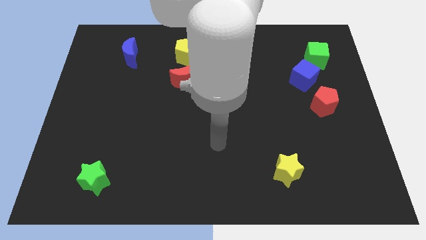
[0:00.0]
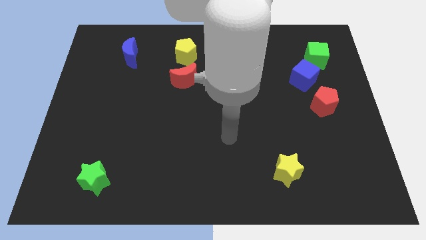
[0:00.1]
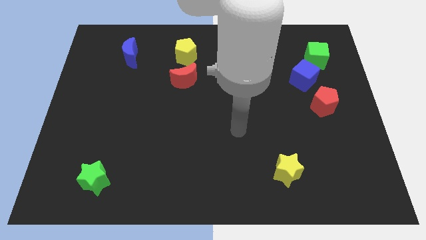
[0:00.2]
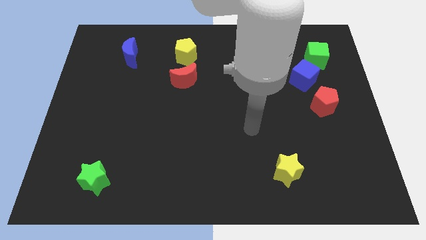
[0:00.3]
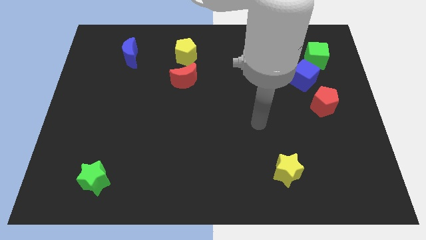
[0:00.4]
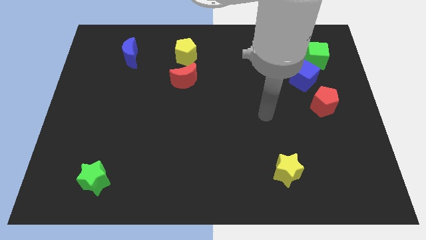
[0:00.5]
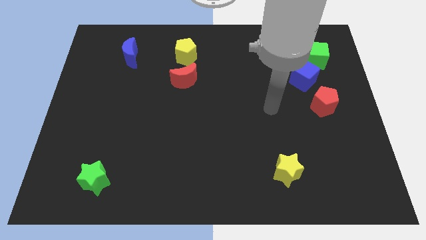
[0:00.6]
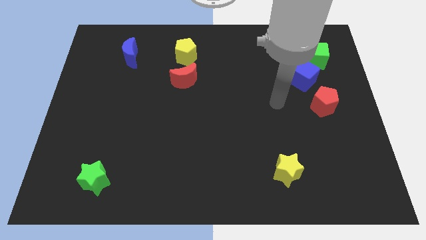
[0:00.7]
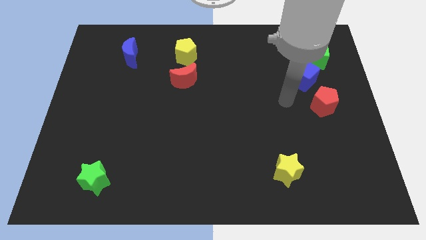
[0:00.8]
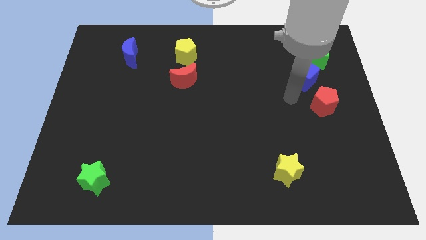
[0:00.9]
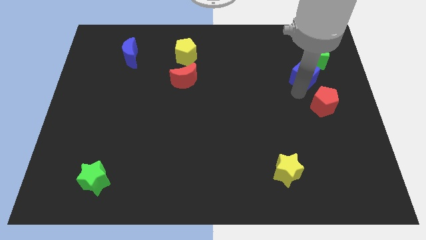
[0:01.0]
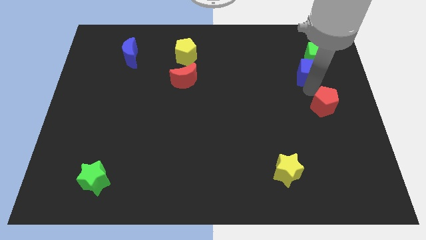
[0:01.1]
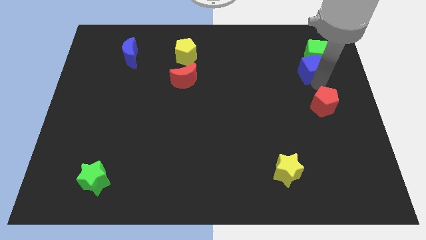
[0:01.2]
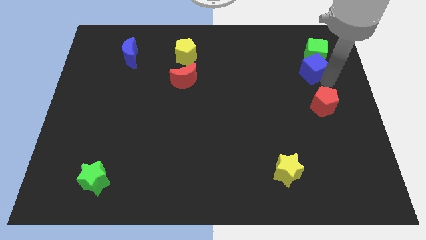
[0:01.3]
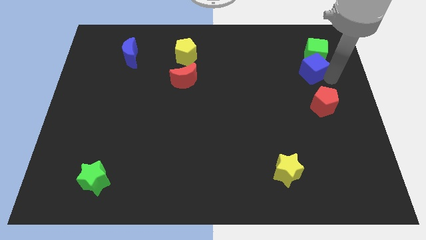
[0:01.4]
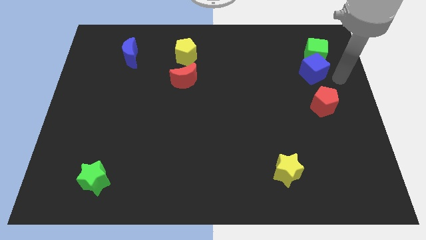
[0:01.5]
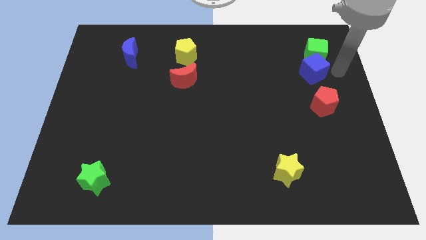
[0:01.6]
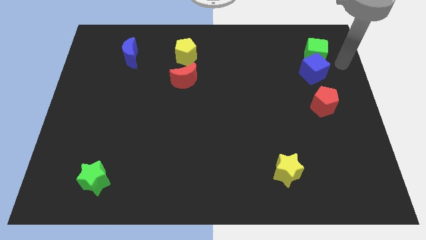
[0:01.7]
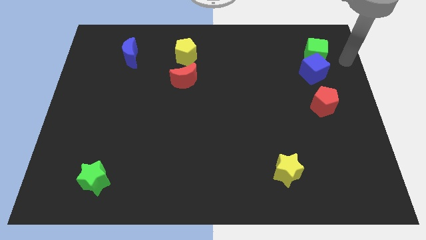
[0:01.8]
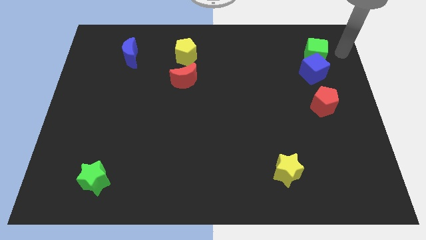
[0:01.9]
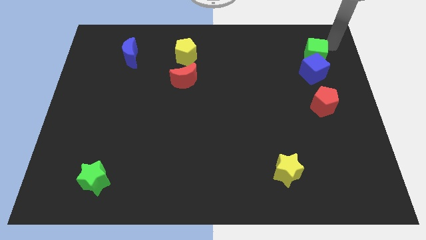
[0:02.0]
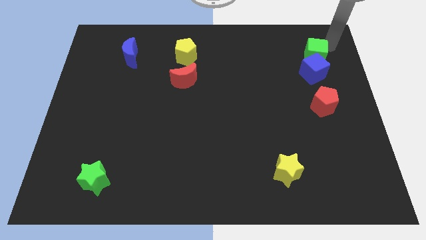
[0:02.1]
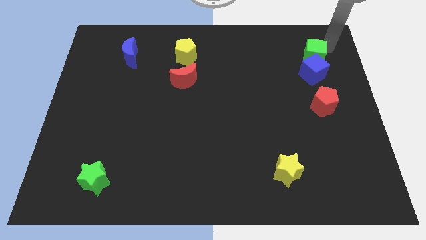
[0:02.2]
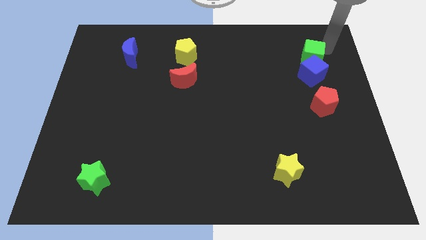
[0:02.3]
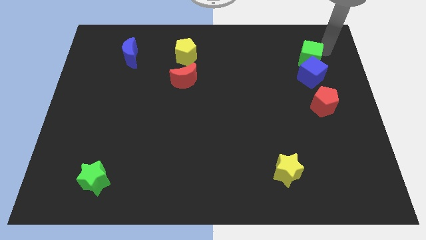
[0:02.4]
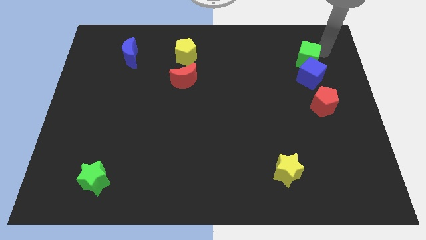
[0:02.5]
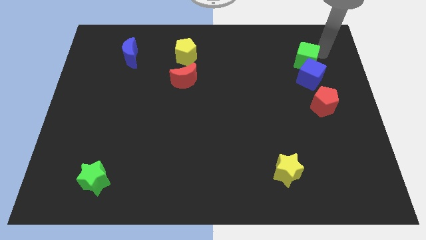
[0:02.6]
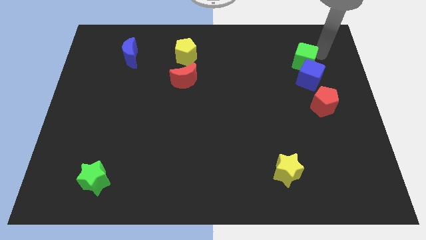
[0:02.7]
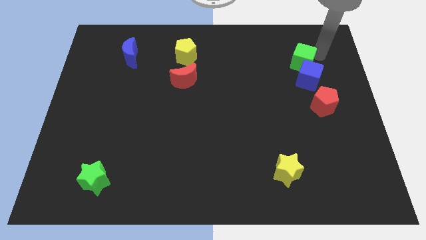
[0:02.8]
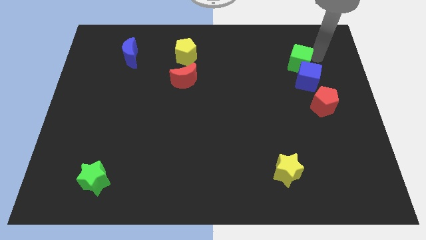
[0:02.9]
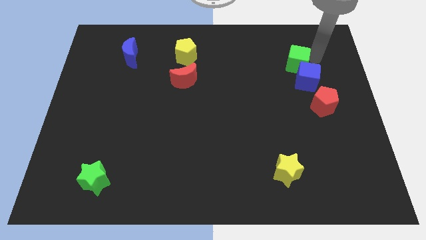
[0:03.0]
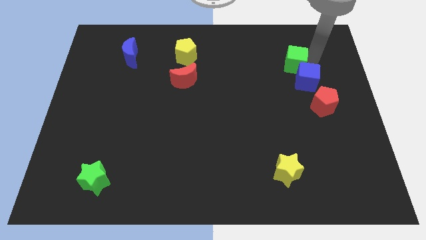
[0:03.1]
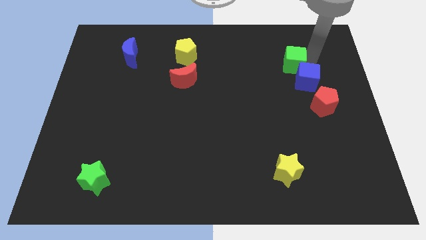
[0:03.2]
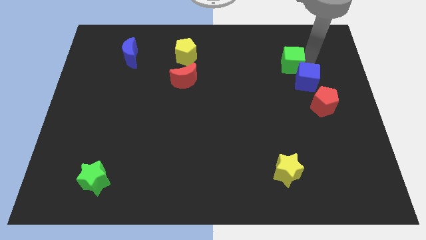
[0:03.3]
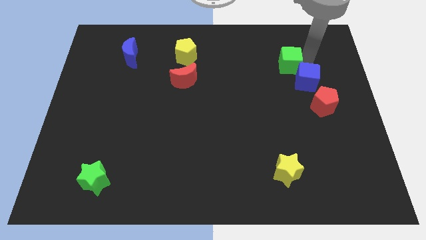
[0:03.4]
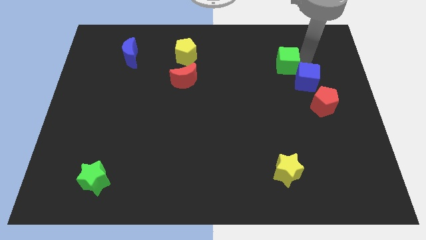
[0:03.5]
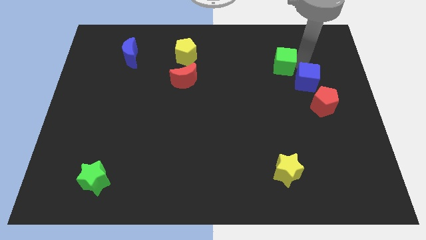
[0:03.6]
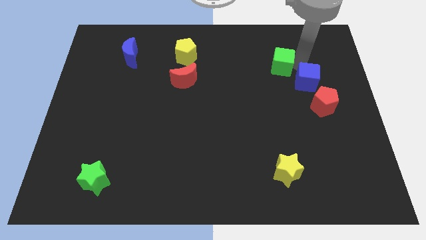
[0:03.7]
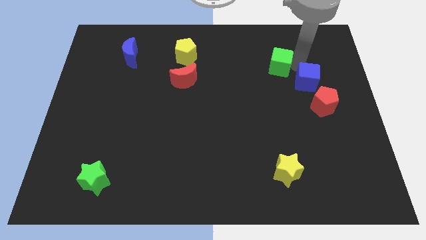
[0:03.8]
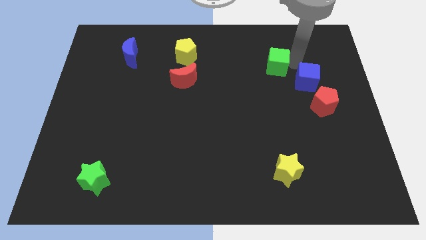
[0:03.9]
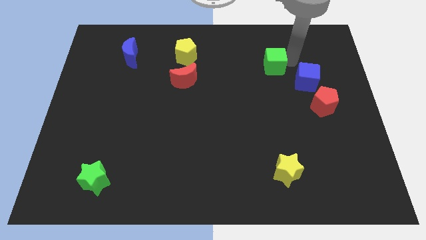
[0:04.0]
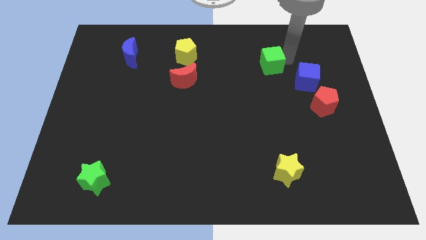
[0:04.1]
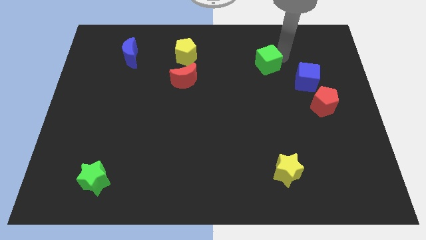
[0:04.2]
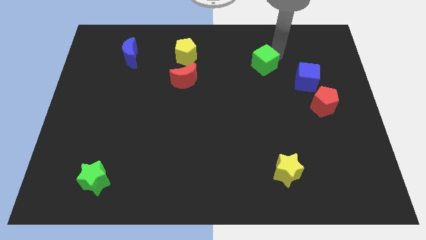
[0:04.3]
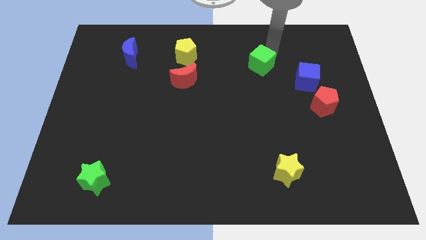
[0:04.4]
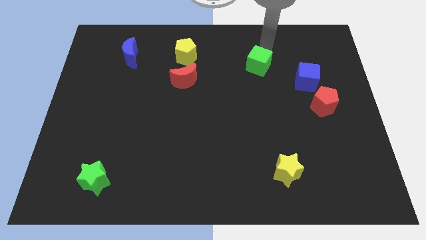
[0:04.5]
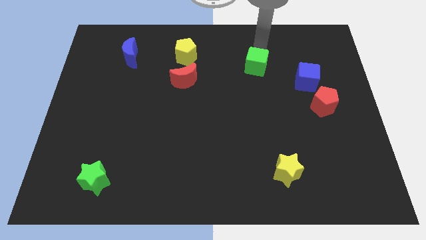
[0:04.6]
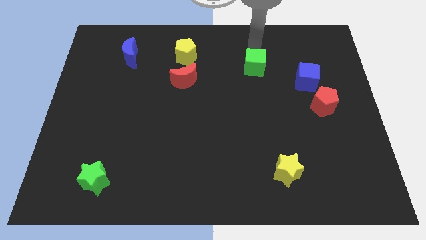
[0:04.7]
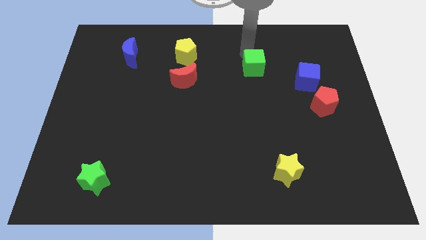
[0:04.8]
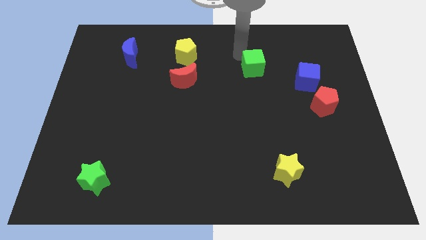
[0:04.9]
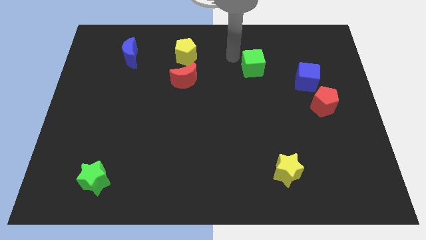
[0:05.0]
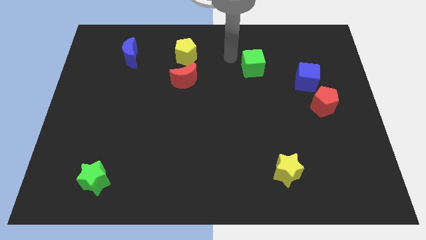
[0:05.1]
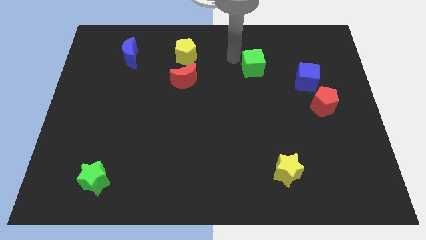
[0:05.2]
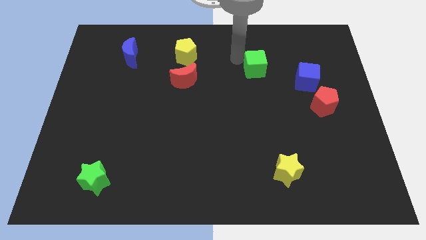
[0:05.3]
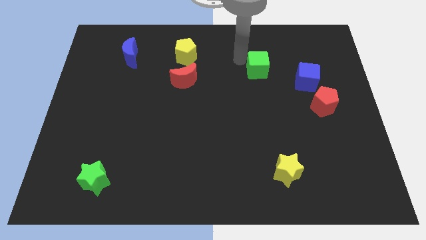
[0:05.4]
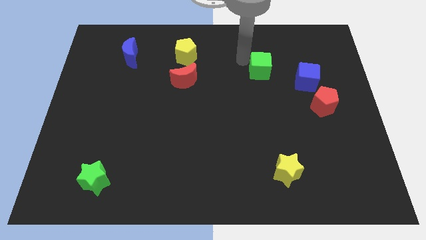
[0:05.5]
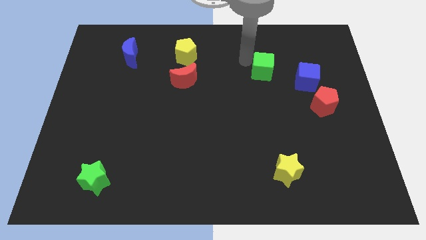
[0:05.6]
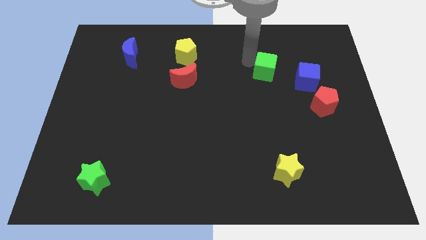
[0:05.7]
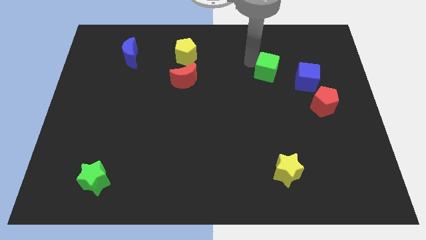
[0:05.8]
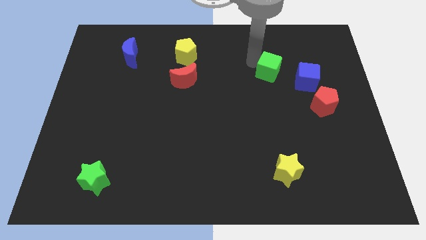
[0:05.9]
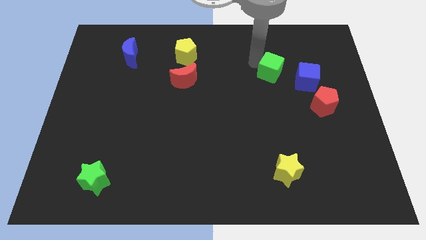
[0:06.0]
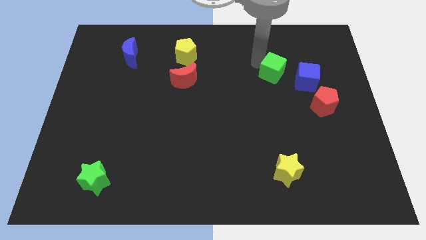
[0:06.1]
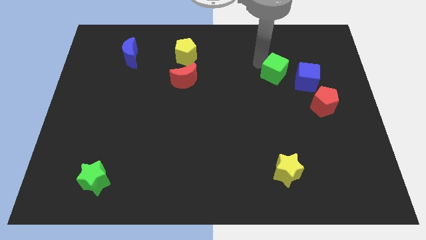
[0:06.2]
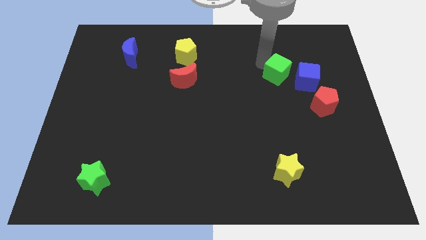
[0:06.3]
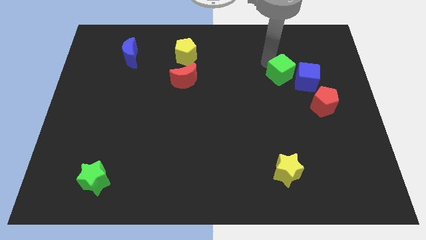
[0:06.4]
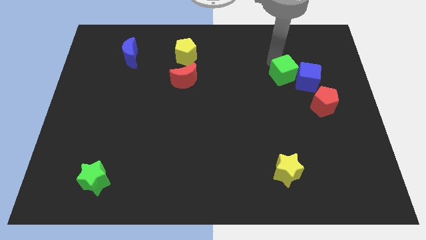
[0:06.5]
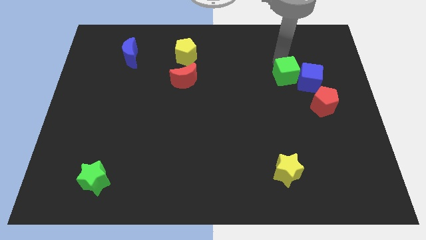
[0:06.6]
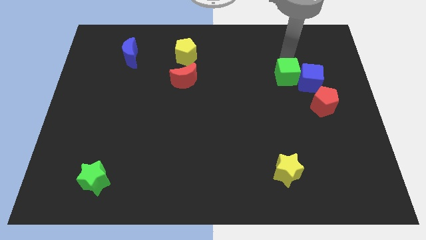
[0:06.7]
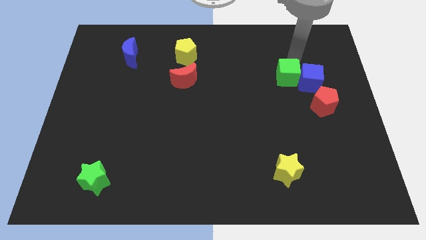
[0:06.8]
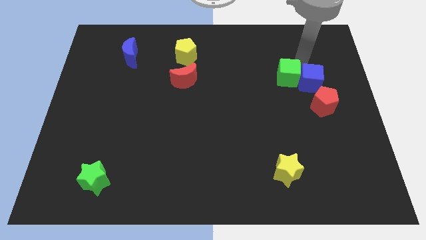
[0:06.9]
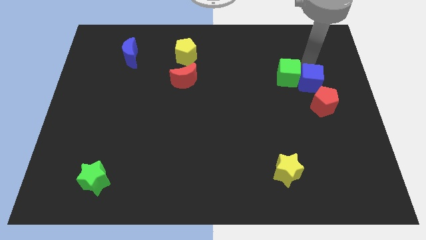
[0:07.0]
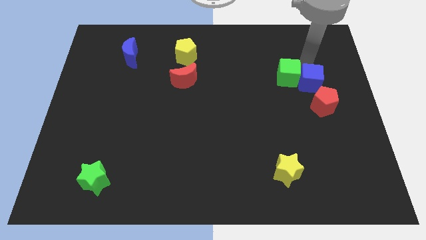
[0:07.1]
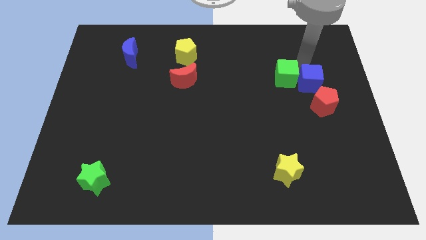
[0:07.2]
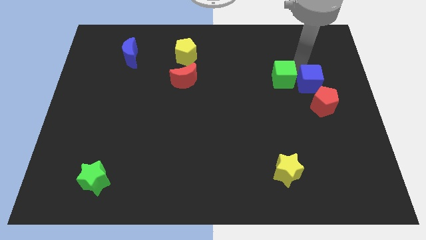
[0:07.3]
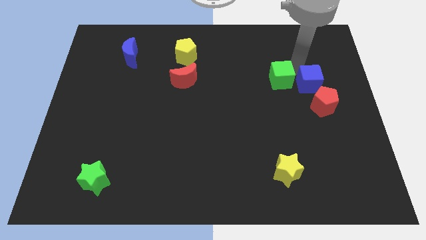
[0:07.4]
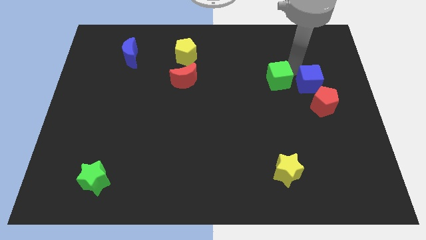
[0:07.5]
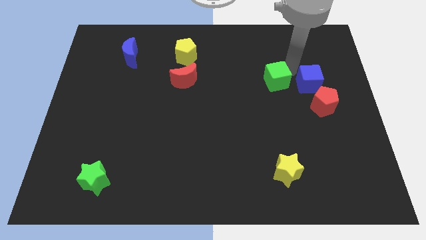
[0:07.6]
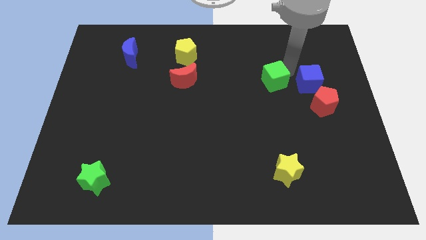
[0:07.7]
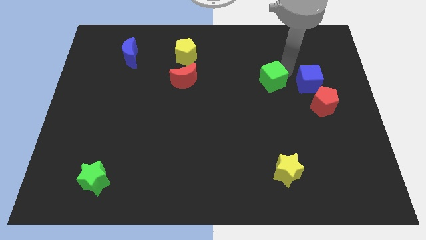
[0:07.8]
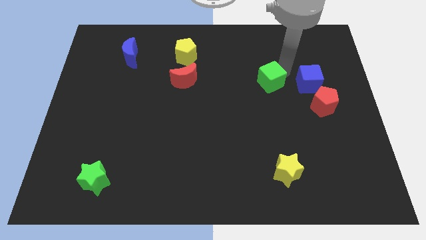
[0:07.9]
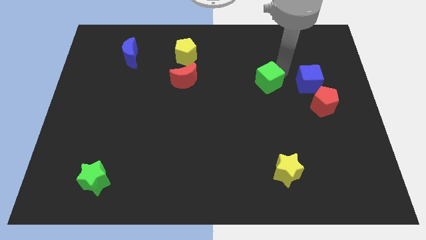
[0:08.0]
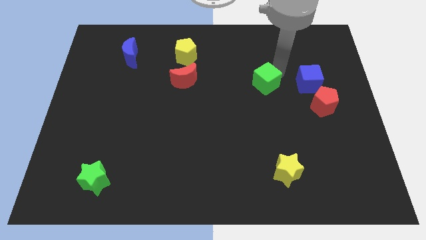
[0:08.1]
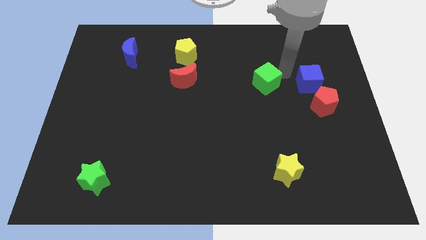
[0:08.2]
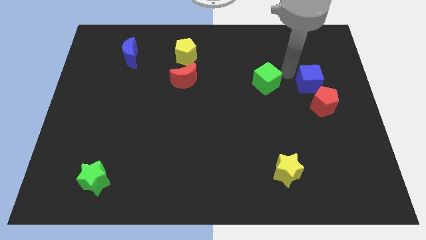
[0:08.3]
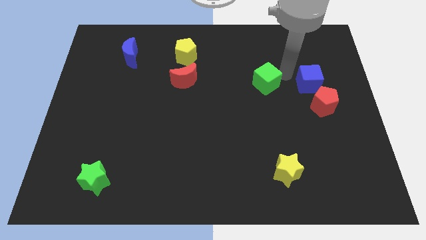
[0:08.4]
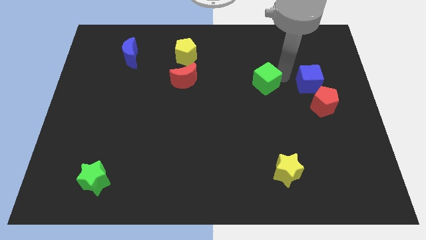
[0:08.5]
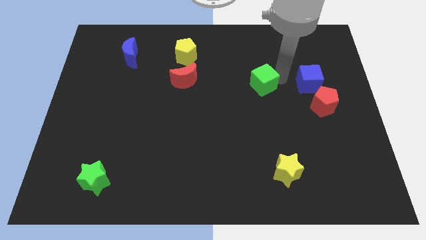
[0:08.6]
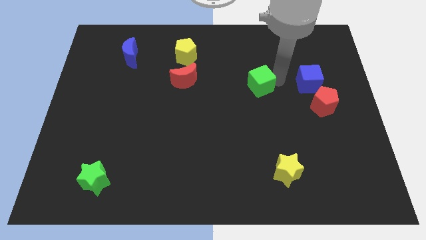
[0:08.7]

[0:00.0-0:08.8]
push the green cube to the center of the board
